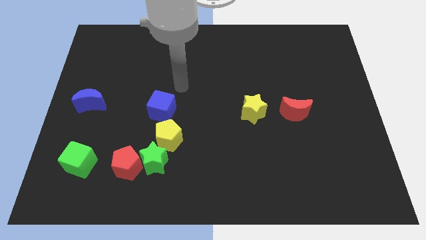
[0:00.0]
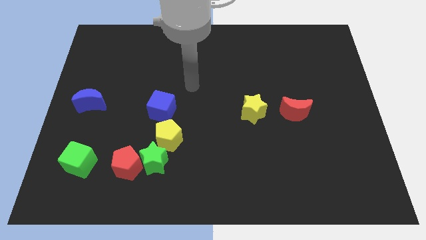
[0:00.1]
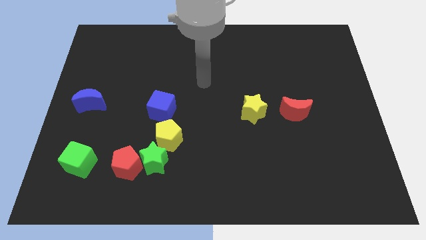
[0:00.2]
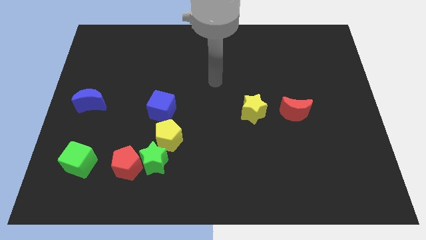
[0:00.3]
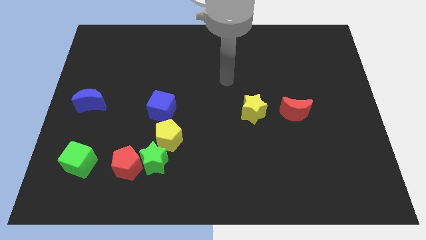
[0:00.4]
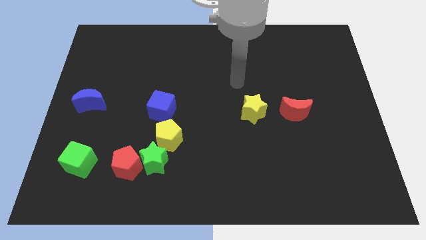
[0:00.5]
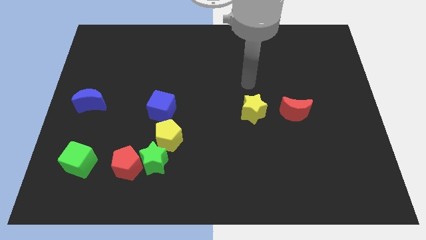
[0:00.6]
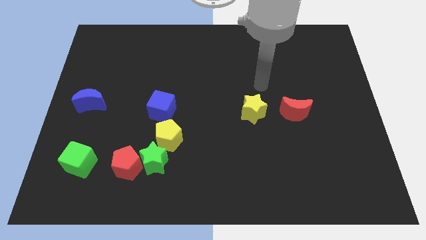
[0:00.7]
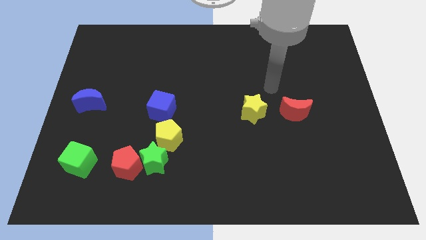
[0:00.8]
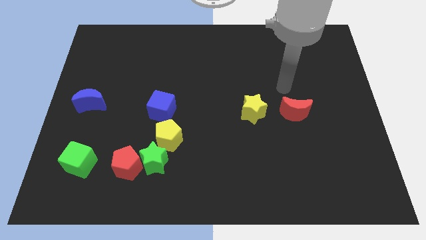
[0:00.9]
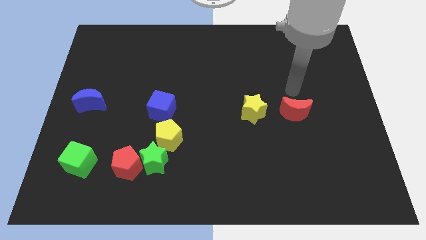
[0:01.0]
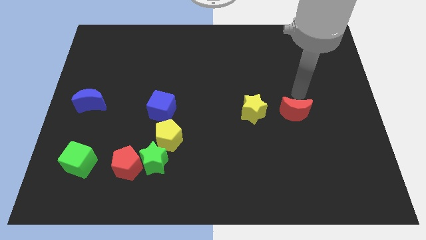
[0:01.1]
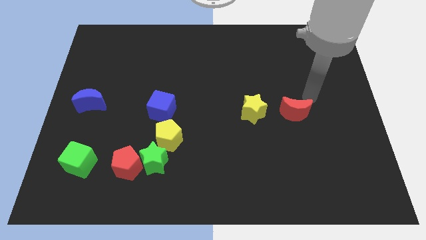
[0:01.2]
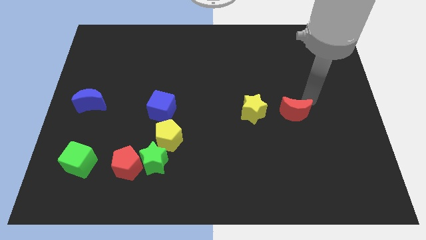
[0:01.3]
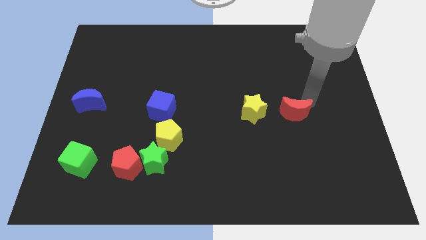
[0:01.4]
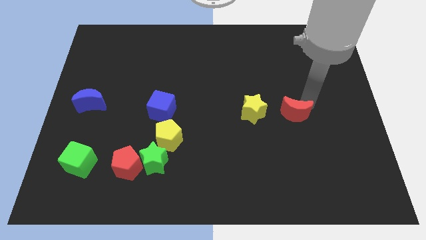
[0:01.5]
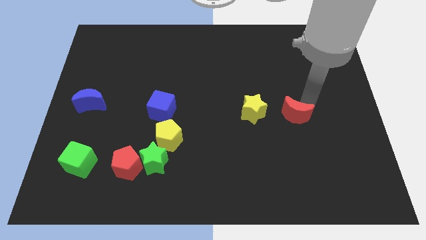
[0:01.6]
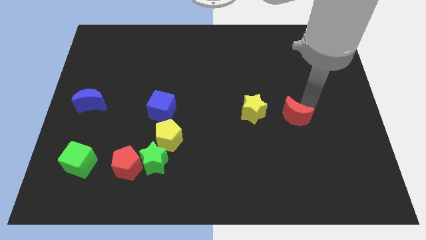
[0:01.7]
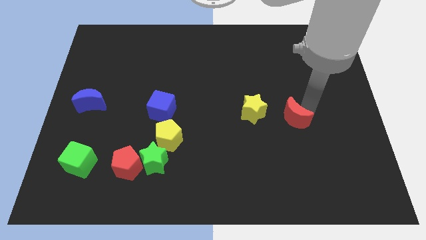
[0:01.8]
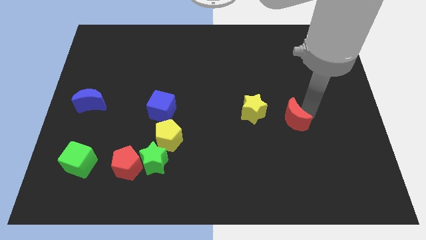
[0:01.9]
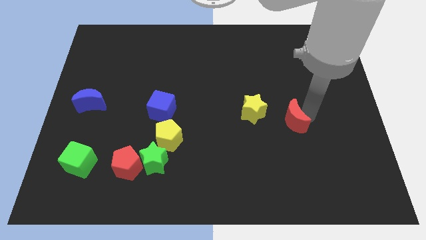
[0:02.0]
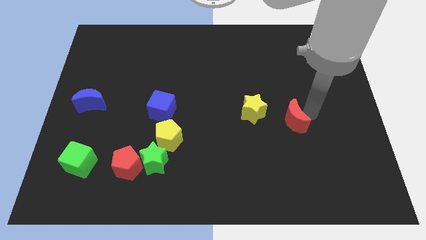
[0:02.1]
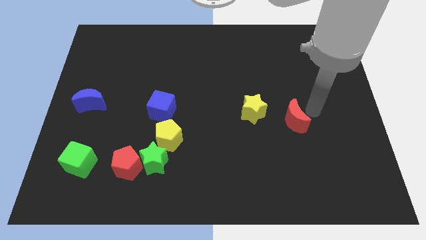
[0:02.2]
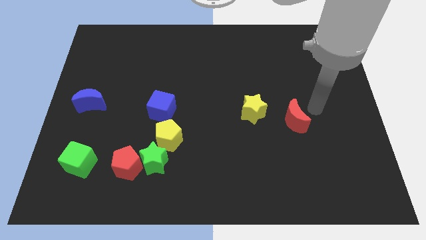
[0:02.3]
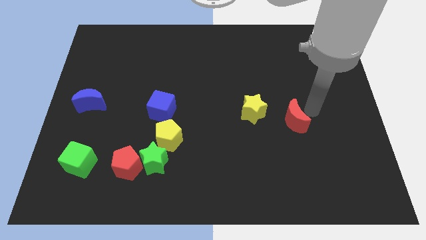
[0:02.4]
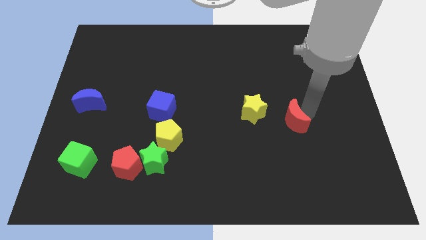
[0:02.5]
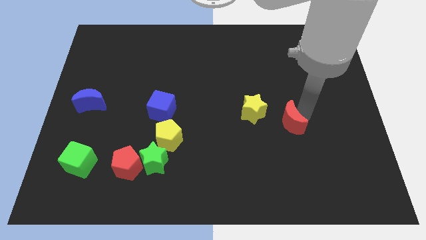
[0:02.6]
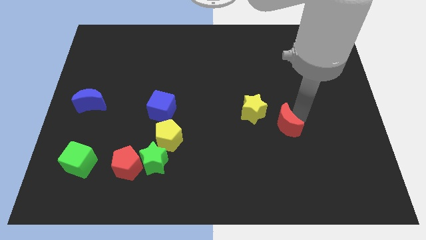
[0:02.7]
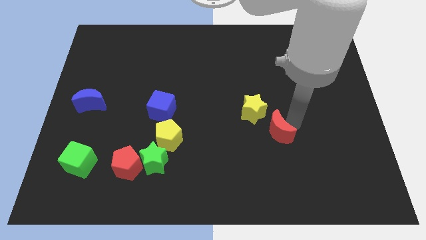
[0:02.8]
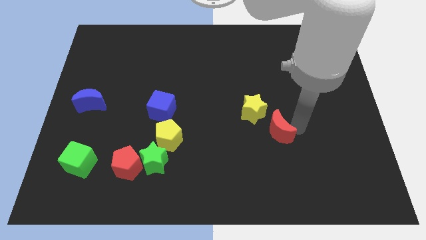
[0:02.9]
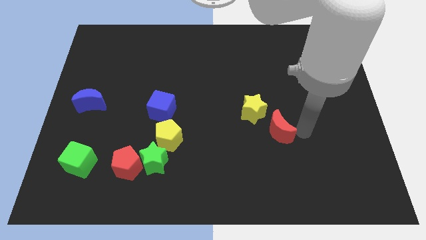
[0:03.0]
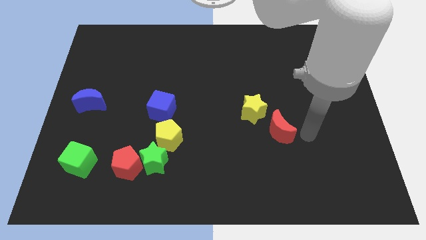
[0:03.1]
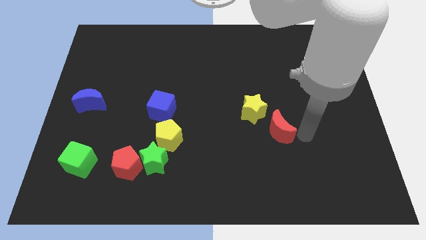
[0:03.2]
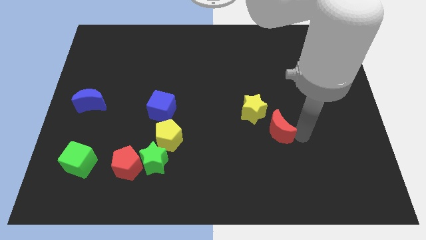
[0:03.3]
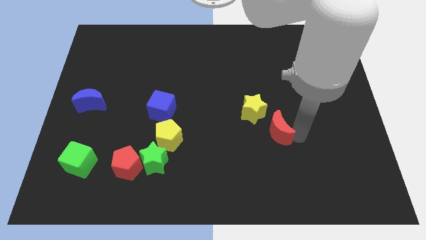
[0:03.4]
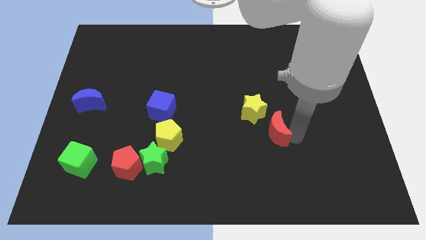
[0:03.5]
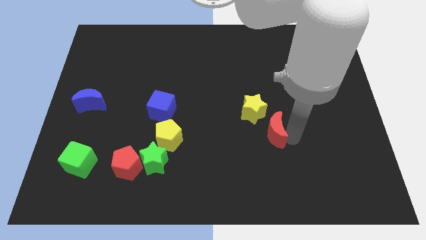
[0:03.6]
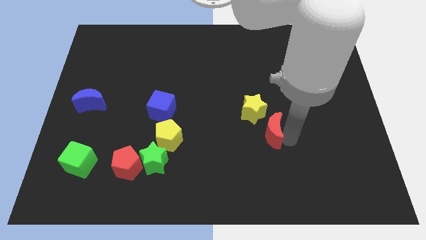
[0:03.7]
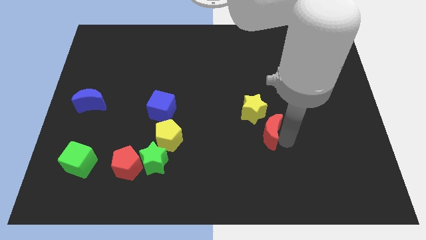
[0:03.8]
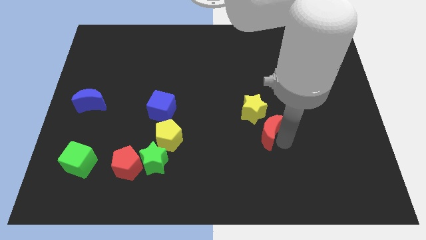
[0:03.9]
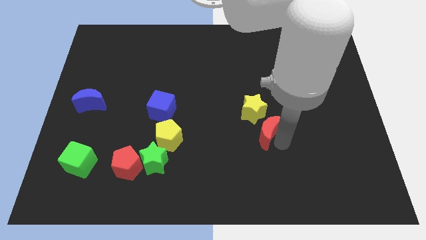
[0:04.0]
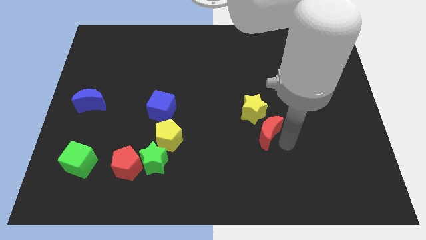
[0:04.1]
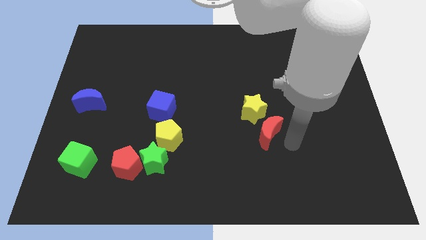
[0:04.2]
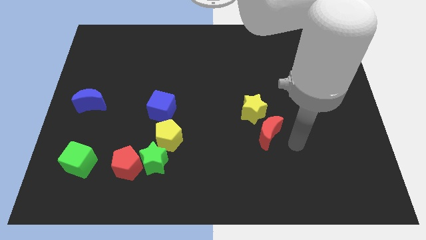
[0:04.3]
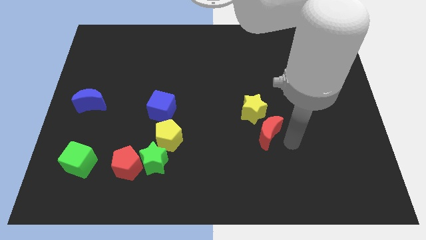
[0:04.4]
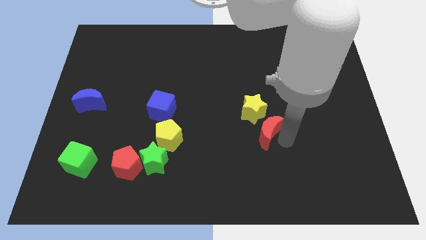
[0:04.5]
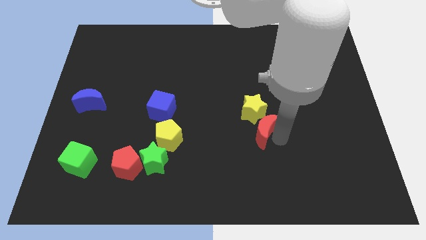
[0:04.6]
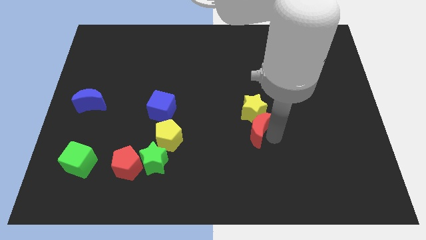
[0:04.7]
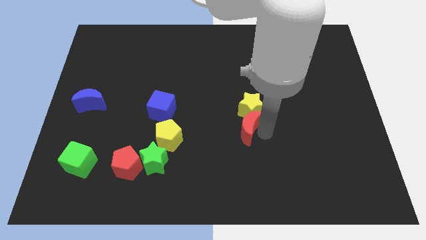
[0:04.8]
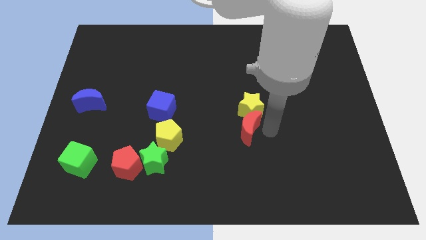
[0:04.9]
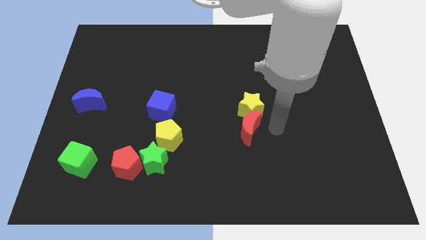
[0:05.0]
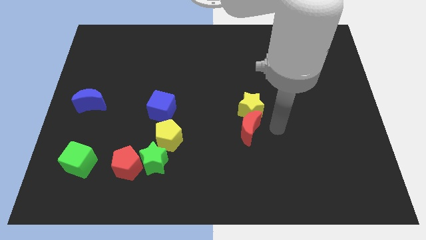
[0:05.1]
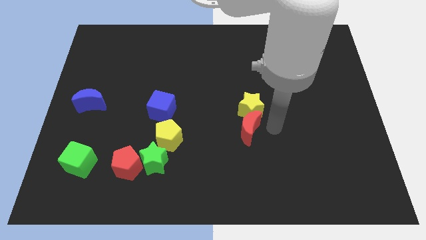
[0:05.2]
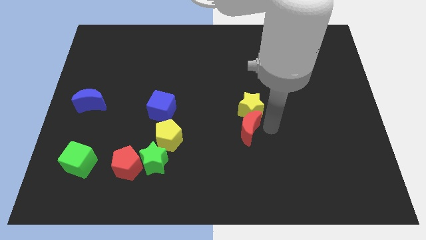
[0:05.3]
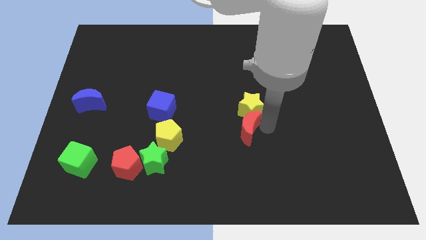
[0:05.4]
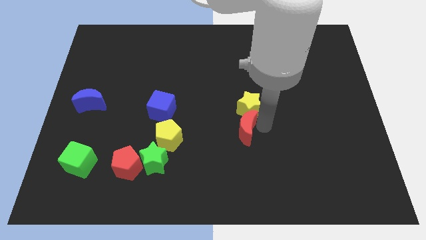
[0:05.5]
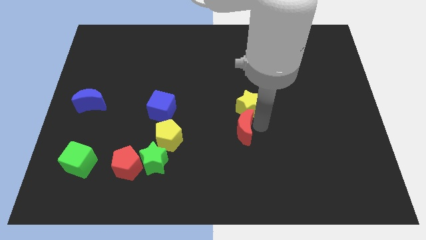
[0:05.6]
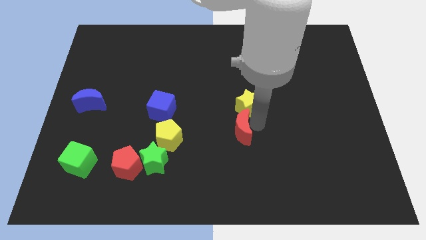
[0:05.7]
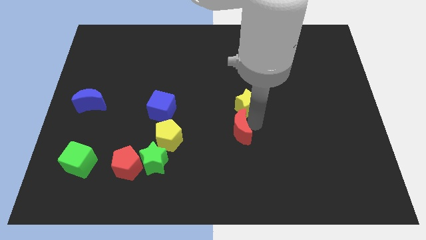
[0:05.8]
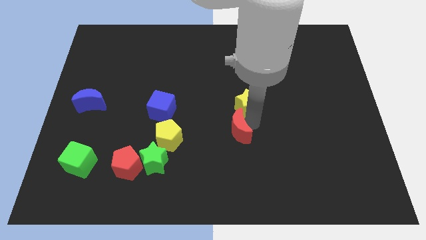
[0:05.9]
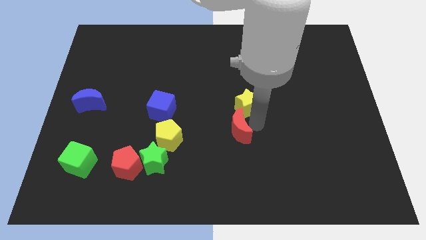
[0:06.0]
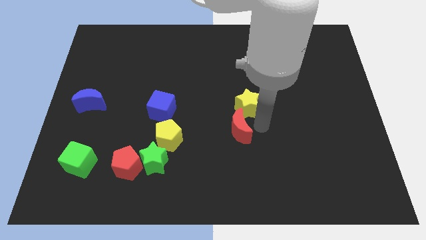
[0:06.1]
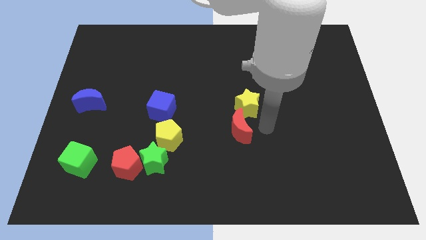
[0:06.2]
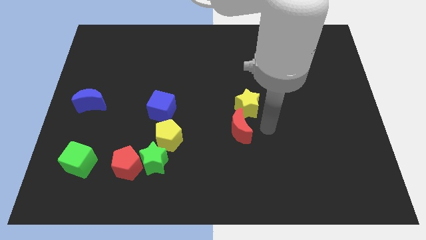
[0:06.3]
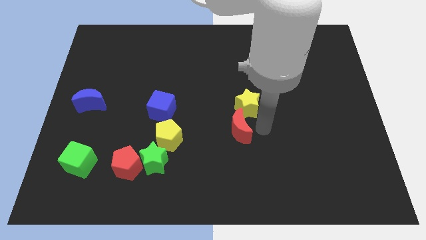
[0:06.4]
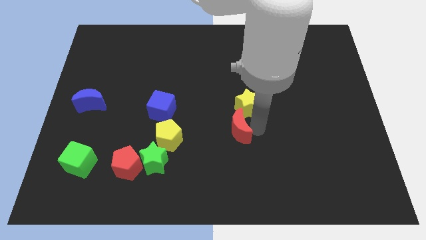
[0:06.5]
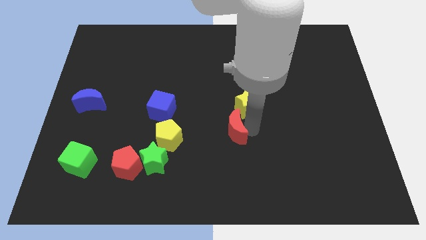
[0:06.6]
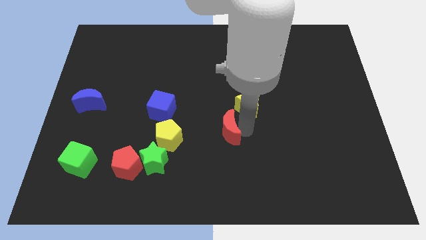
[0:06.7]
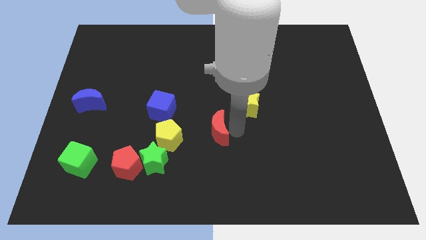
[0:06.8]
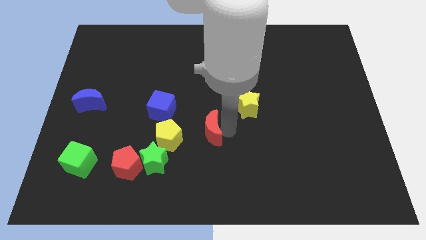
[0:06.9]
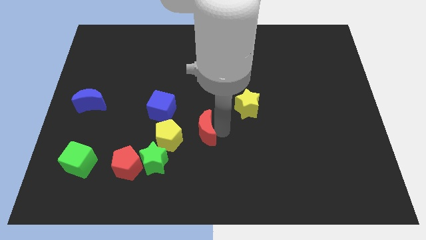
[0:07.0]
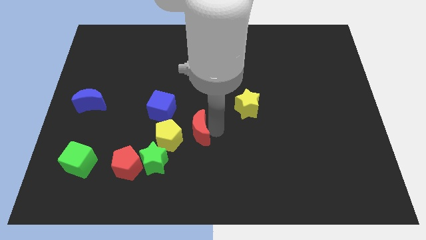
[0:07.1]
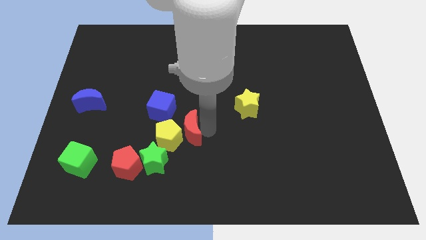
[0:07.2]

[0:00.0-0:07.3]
put the red moon to the yellow pentagon
